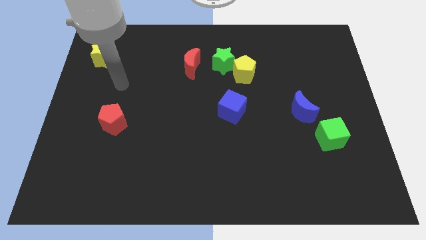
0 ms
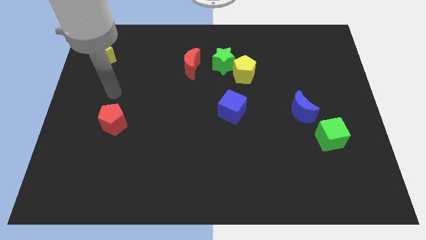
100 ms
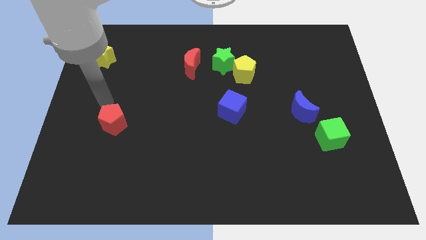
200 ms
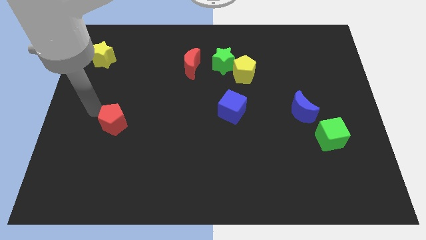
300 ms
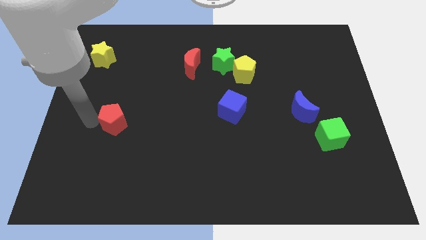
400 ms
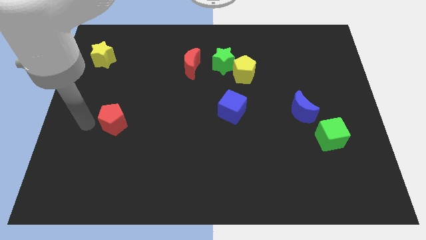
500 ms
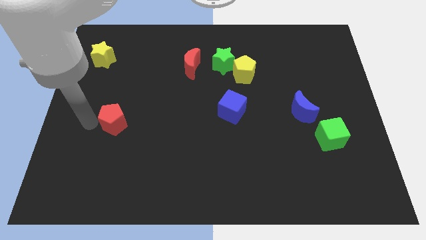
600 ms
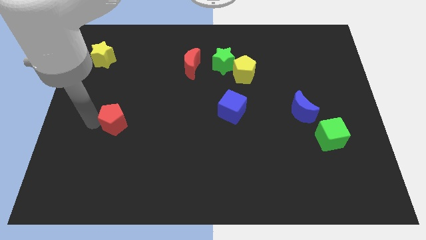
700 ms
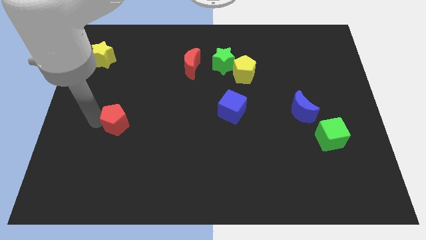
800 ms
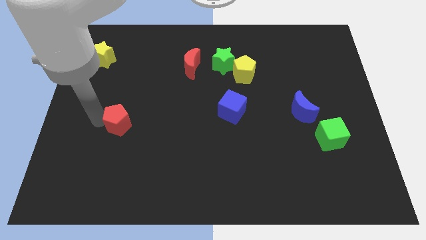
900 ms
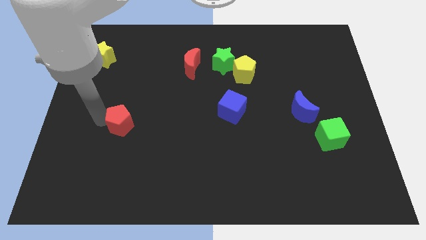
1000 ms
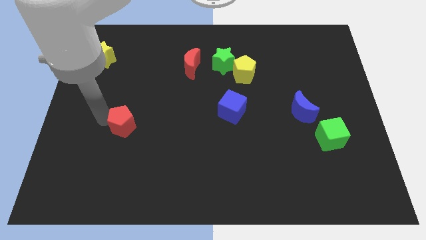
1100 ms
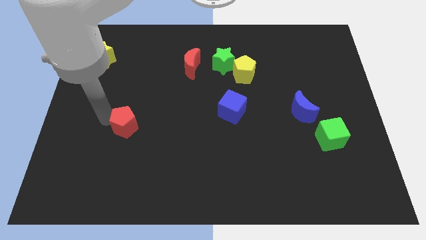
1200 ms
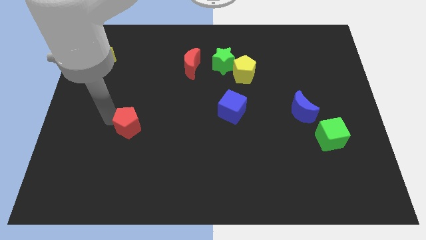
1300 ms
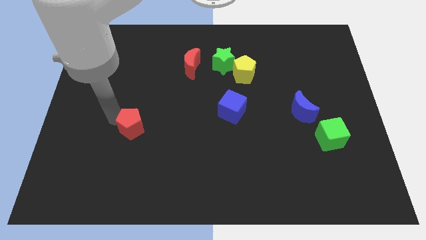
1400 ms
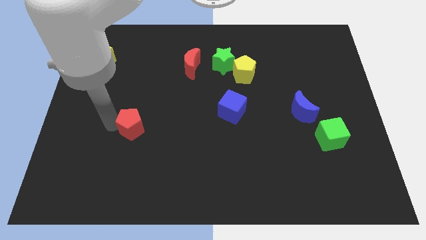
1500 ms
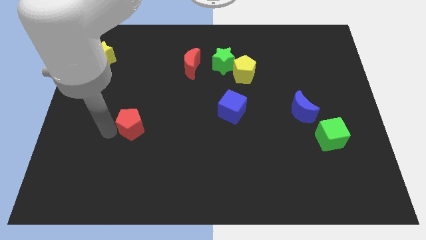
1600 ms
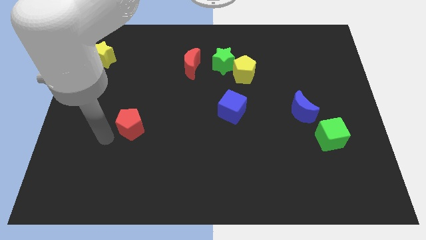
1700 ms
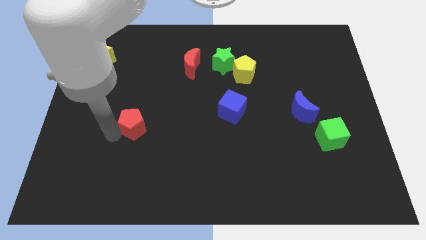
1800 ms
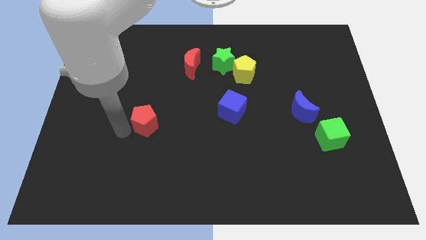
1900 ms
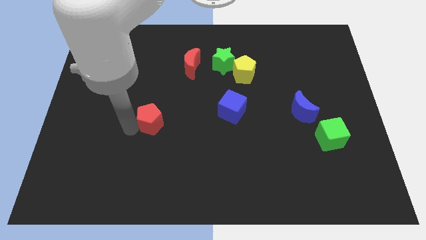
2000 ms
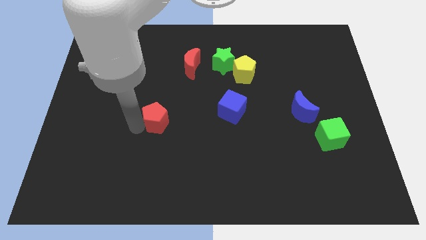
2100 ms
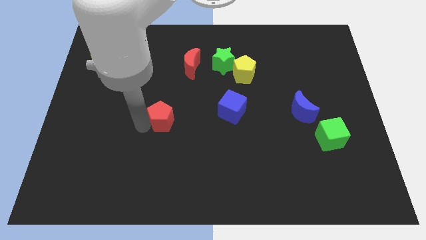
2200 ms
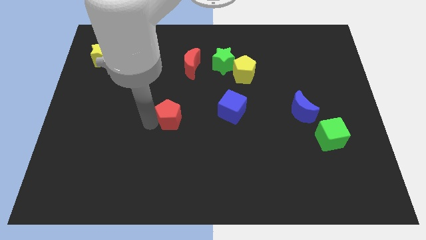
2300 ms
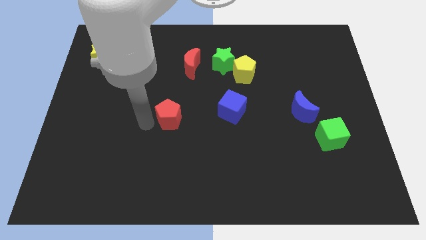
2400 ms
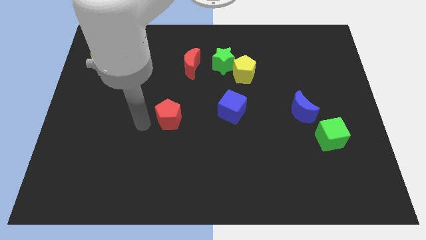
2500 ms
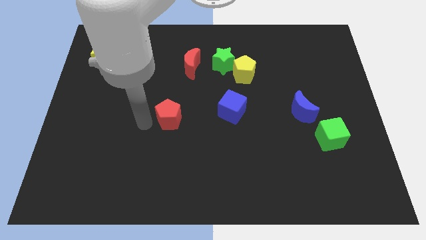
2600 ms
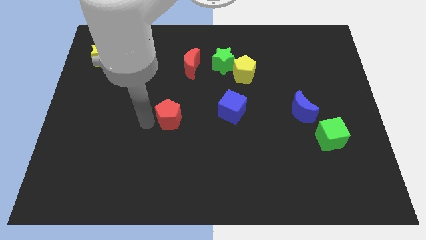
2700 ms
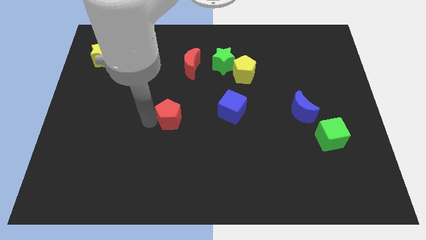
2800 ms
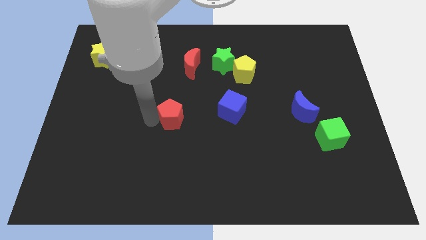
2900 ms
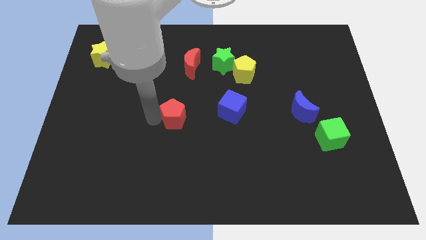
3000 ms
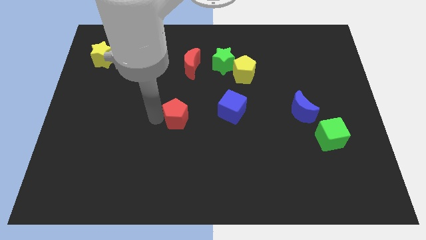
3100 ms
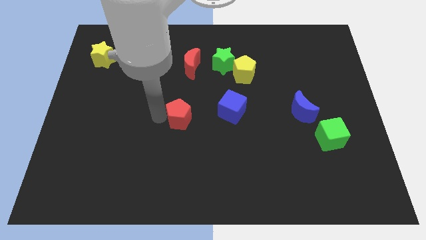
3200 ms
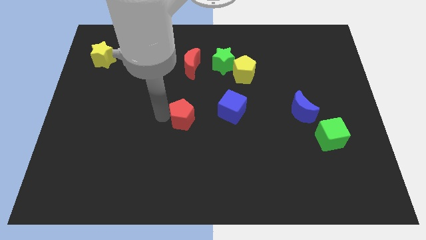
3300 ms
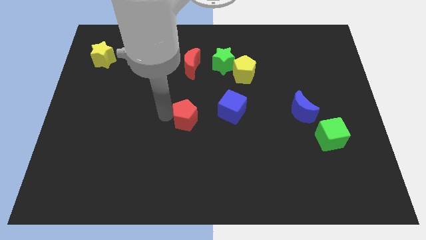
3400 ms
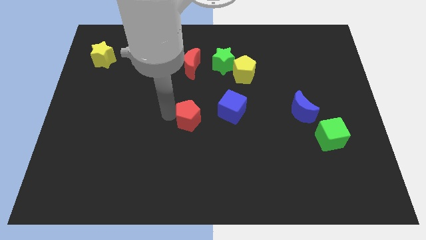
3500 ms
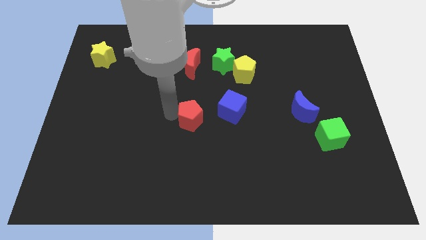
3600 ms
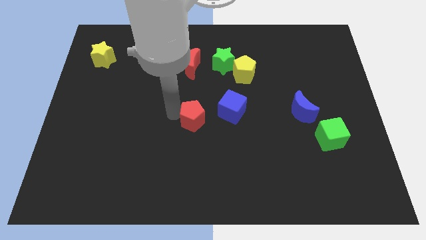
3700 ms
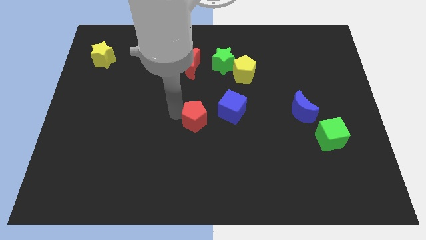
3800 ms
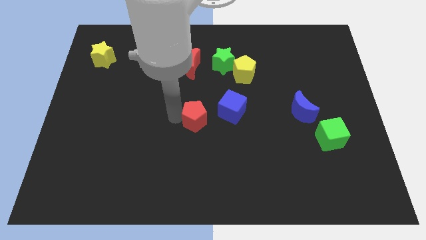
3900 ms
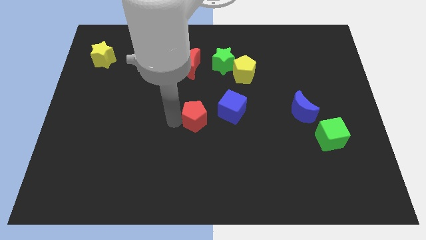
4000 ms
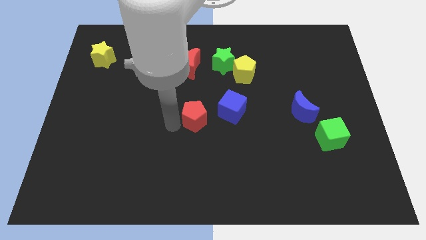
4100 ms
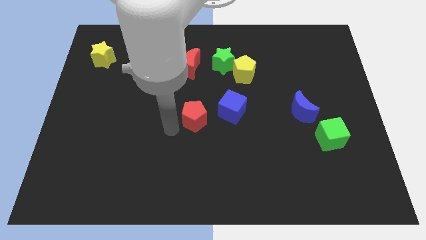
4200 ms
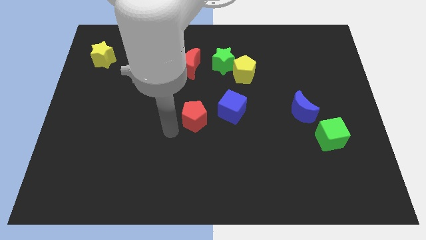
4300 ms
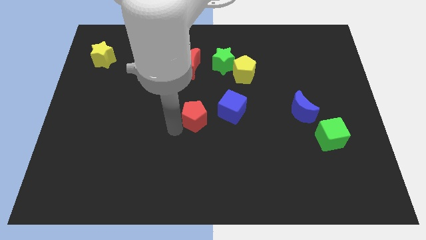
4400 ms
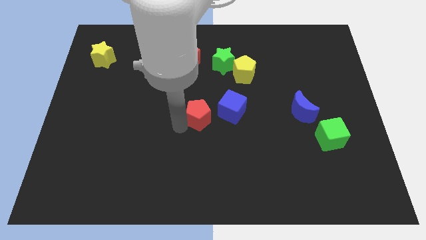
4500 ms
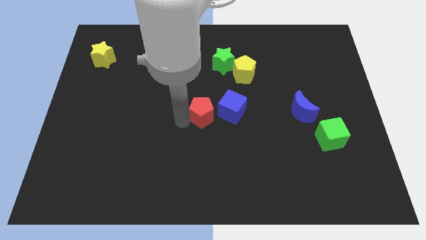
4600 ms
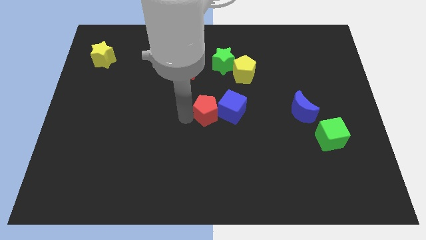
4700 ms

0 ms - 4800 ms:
move the red pentagon close to the blue cube

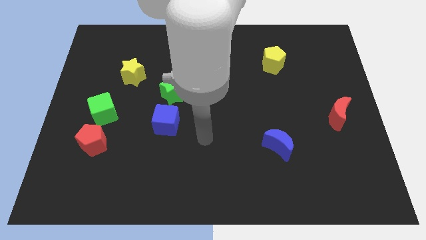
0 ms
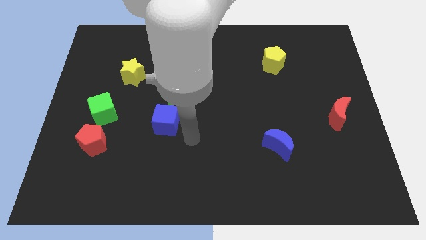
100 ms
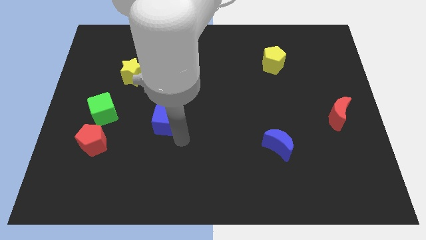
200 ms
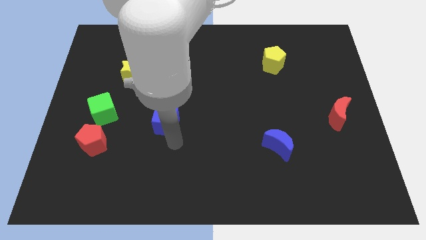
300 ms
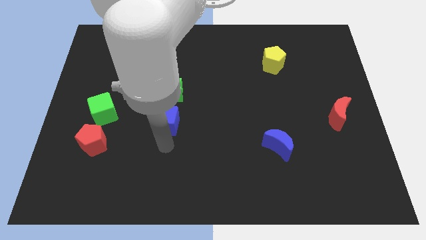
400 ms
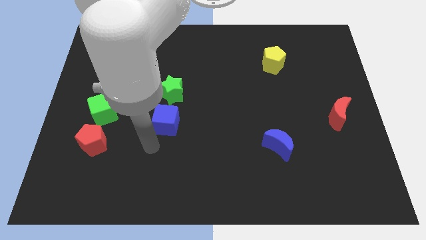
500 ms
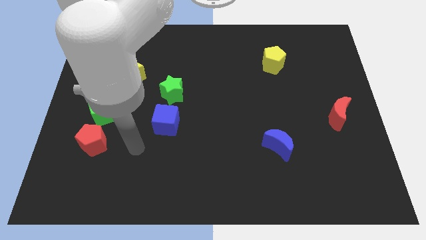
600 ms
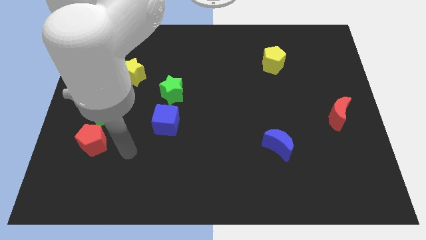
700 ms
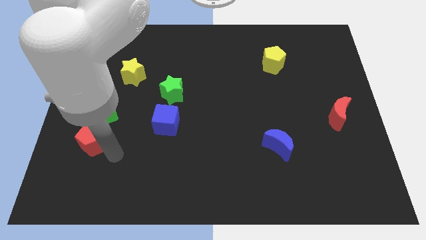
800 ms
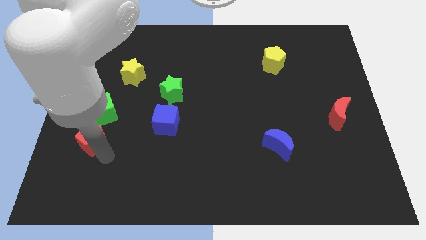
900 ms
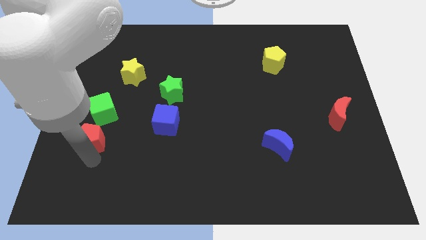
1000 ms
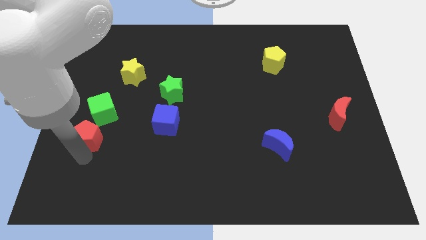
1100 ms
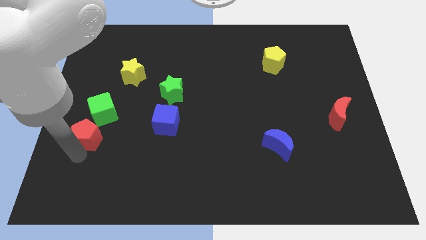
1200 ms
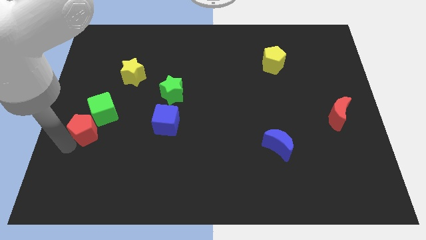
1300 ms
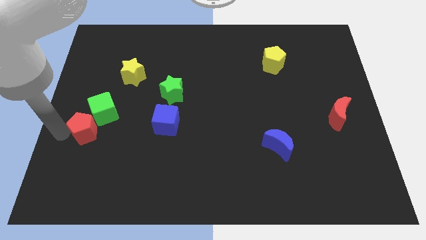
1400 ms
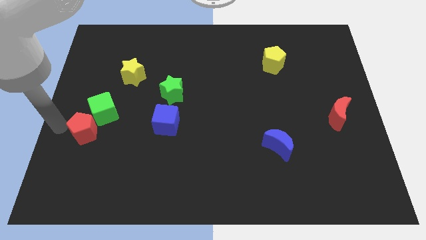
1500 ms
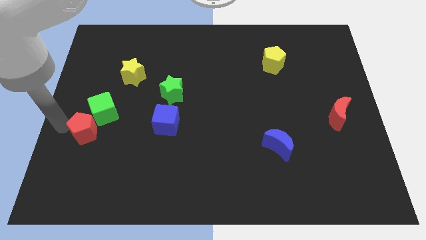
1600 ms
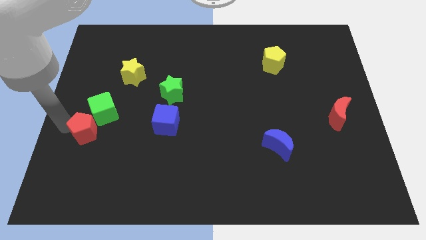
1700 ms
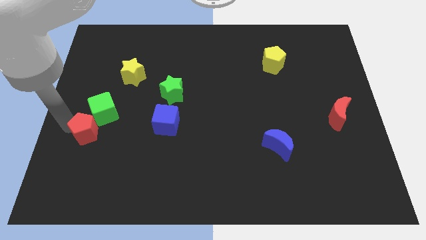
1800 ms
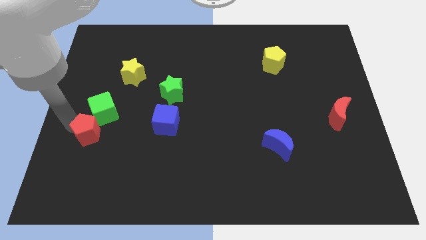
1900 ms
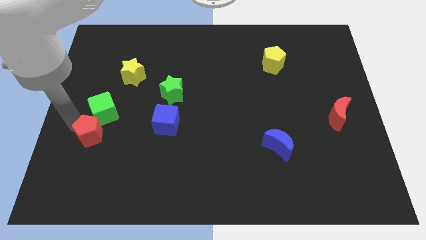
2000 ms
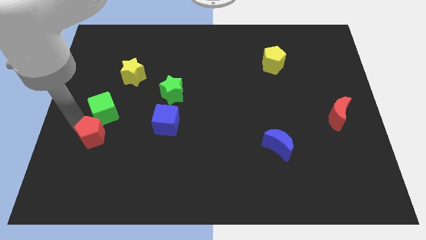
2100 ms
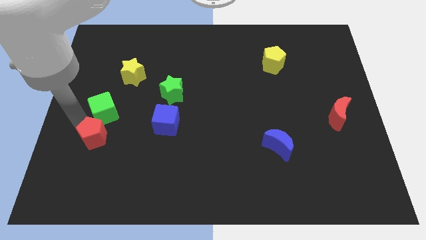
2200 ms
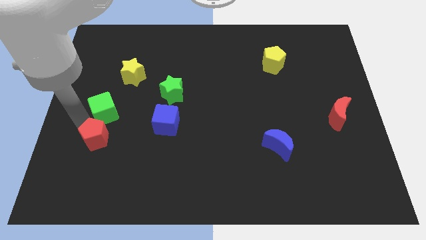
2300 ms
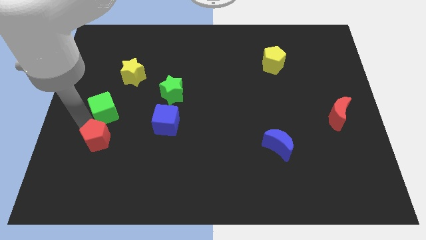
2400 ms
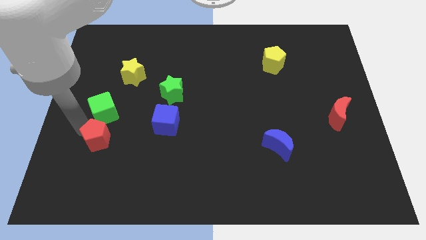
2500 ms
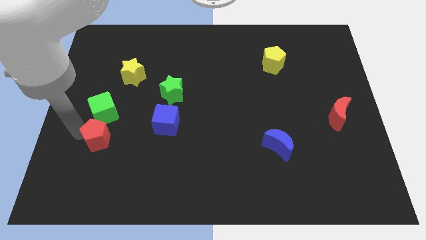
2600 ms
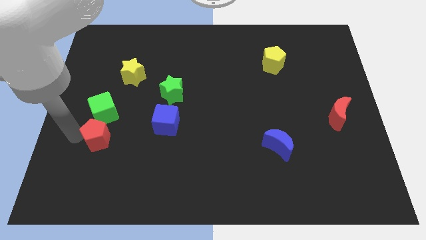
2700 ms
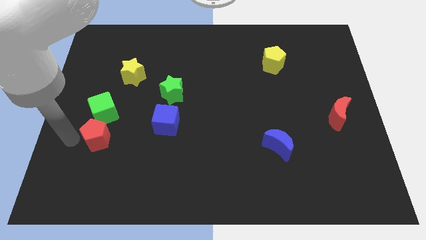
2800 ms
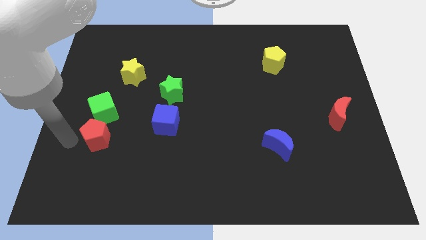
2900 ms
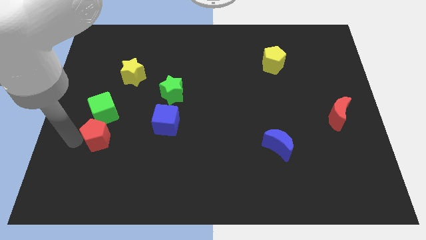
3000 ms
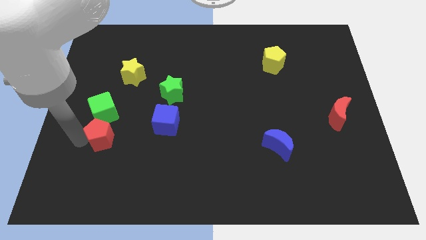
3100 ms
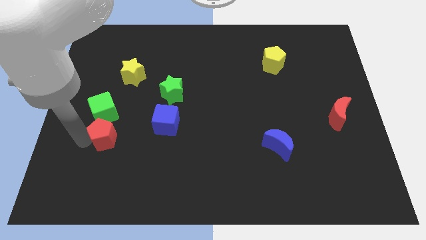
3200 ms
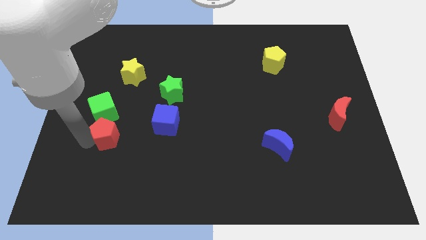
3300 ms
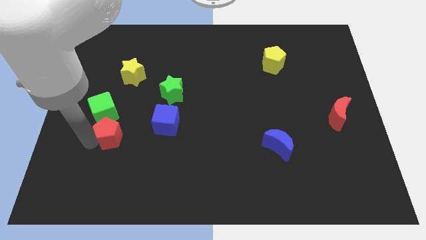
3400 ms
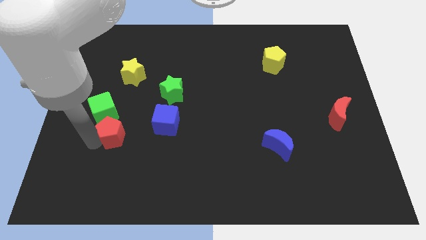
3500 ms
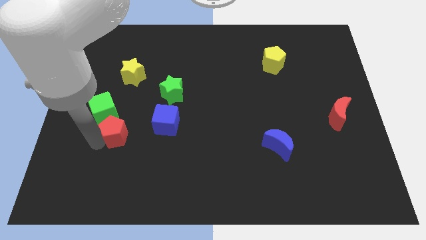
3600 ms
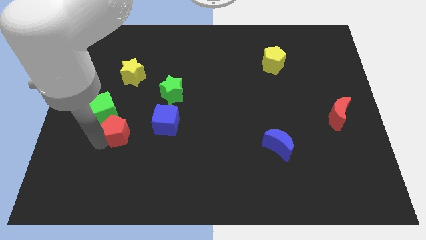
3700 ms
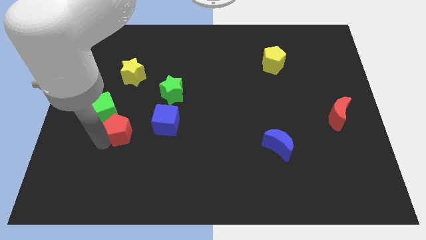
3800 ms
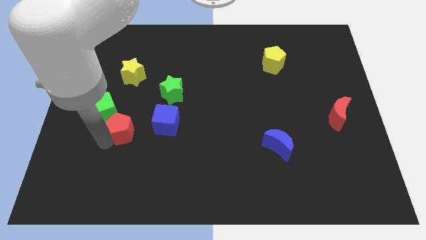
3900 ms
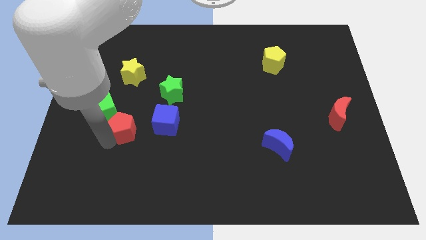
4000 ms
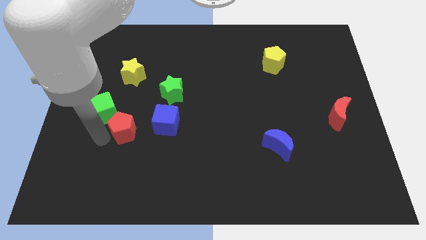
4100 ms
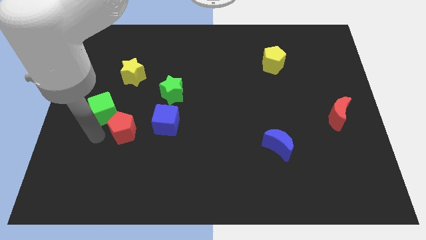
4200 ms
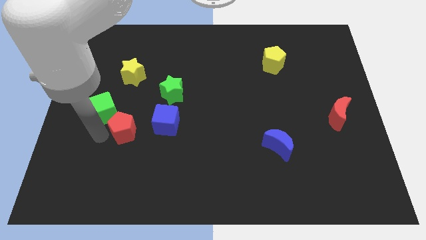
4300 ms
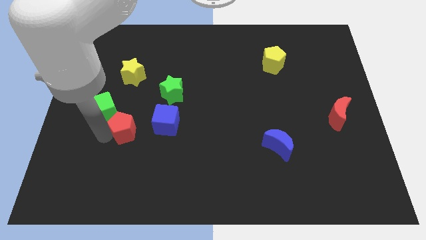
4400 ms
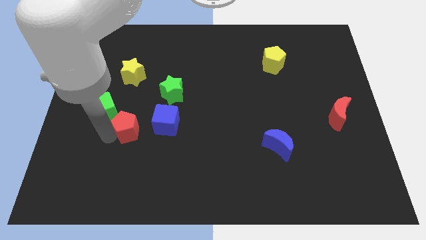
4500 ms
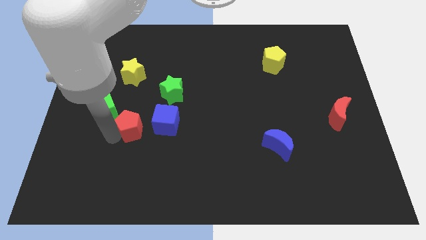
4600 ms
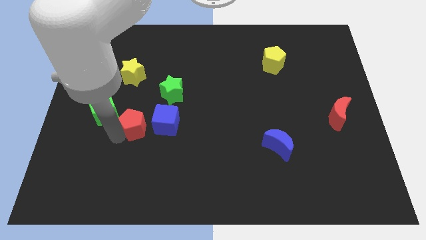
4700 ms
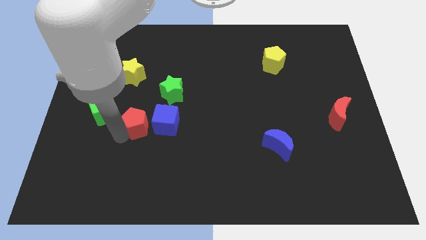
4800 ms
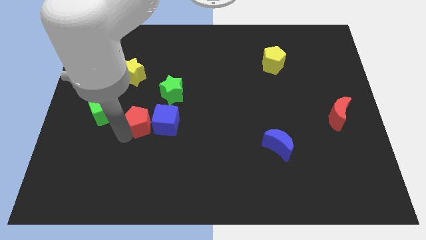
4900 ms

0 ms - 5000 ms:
push the red pentagon towards the blue cube
